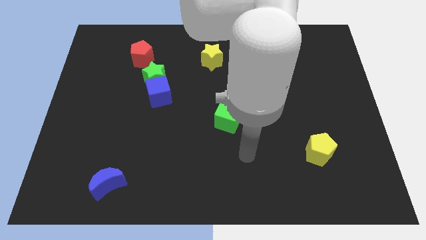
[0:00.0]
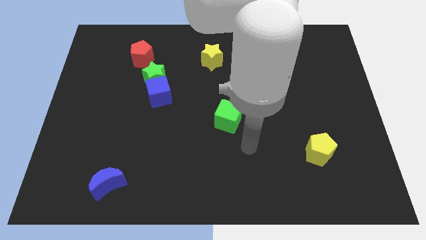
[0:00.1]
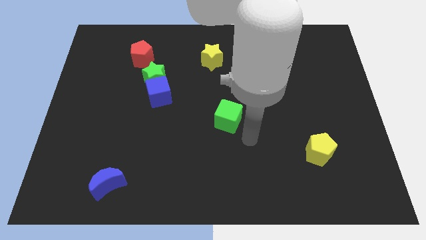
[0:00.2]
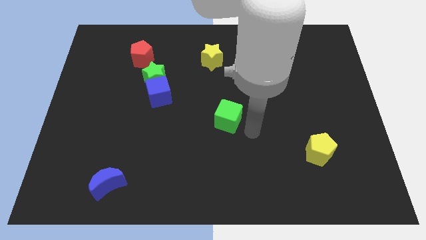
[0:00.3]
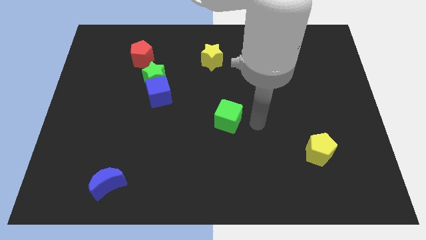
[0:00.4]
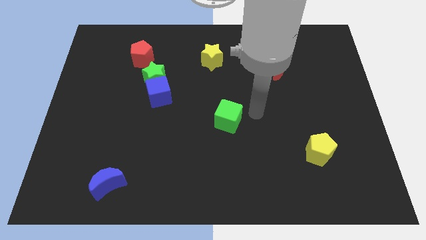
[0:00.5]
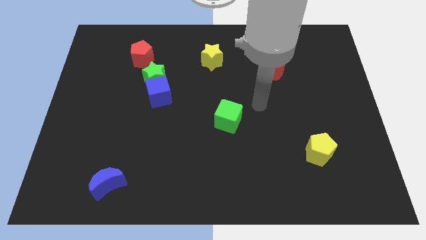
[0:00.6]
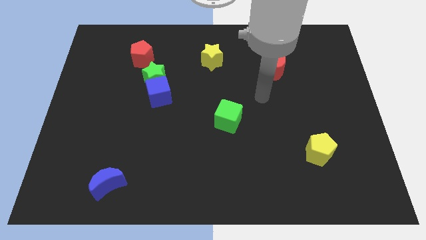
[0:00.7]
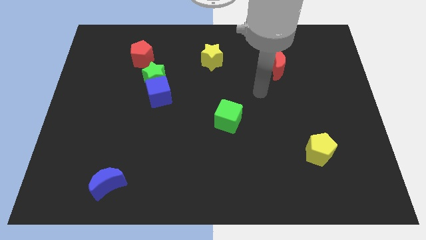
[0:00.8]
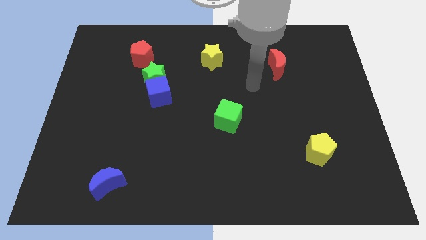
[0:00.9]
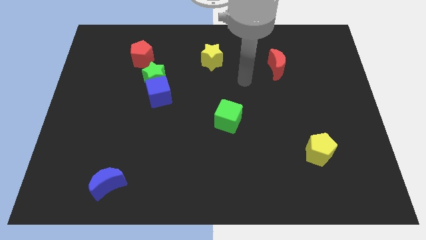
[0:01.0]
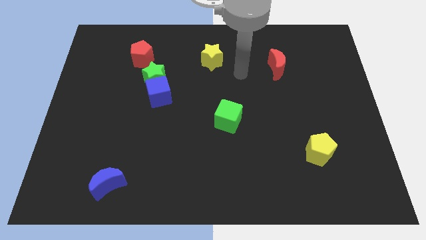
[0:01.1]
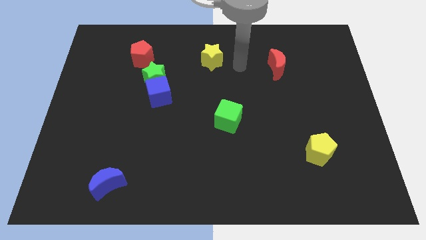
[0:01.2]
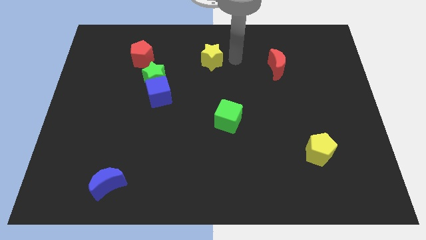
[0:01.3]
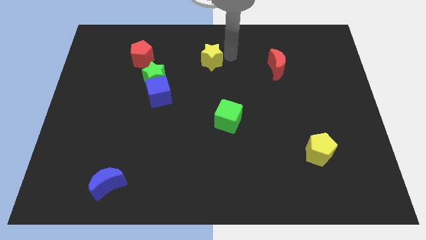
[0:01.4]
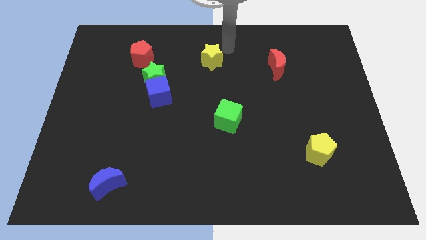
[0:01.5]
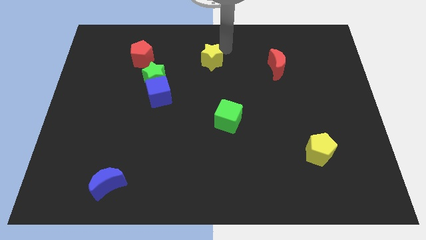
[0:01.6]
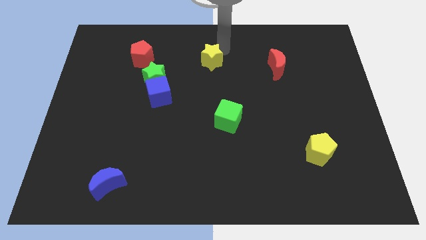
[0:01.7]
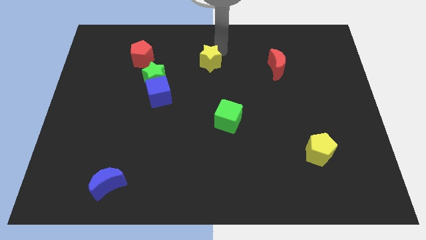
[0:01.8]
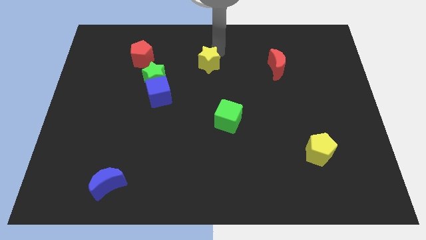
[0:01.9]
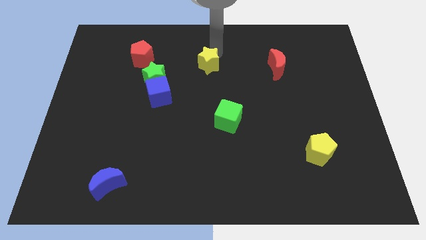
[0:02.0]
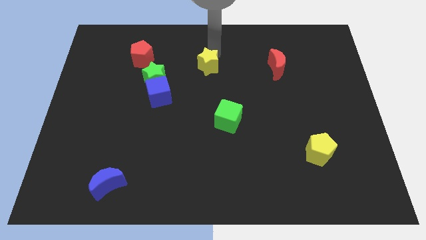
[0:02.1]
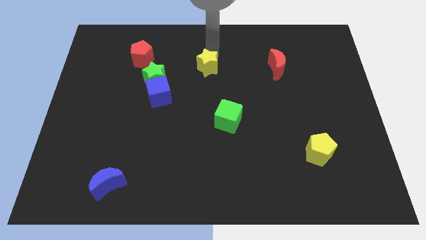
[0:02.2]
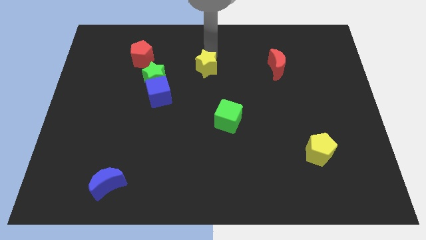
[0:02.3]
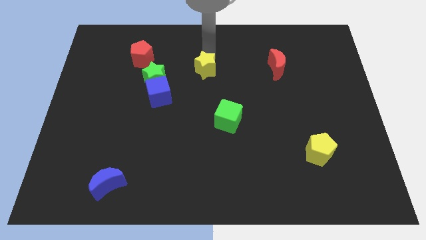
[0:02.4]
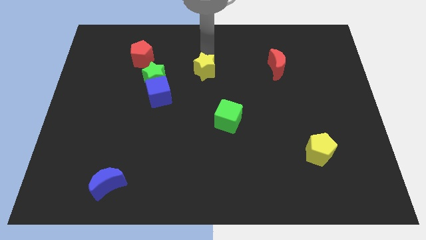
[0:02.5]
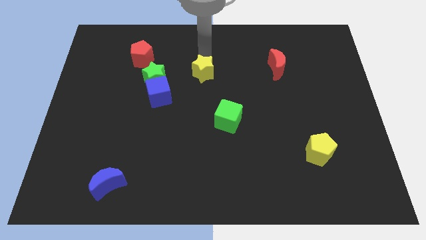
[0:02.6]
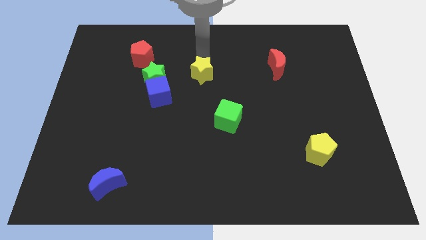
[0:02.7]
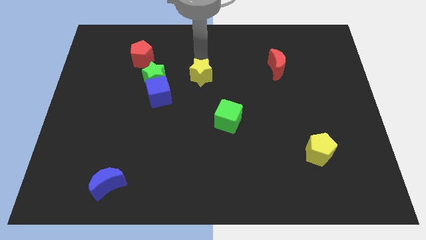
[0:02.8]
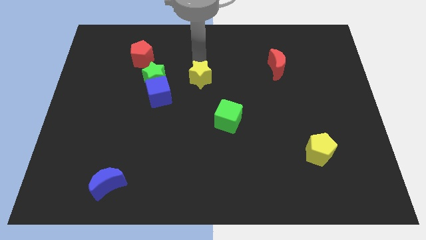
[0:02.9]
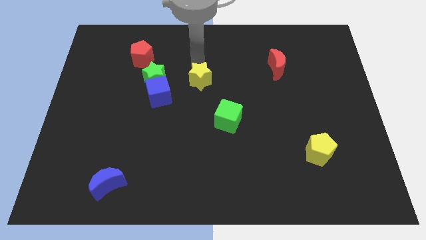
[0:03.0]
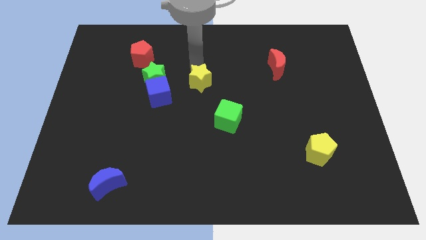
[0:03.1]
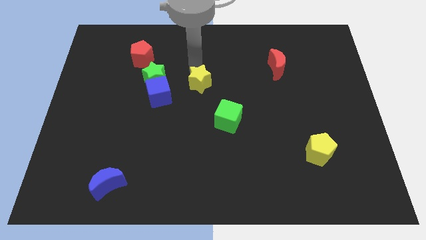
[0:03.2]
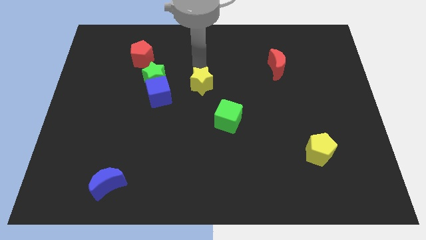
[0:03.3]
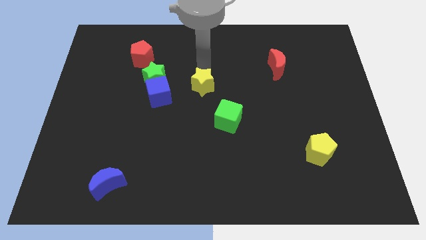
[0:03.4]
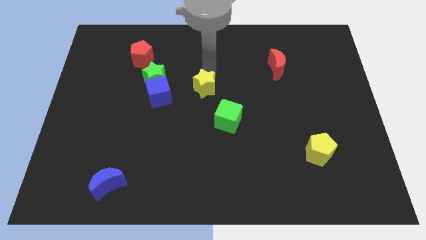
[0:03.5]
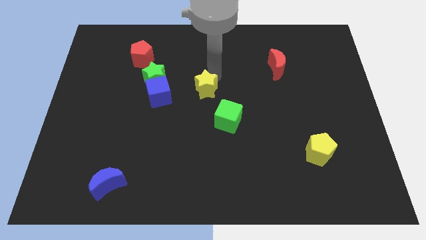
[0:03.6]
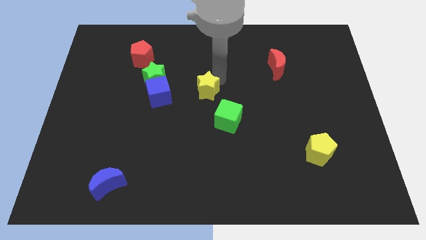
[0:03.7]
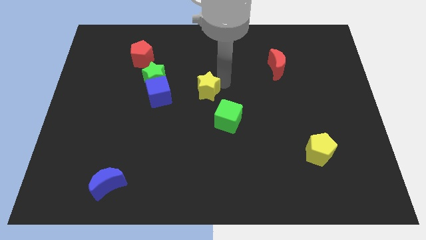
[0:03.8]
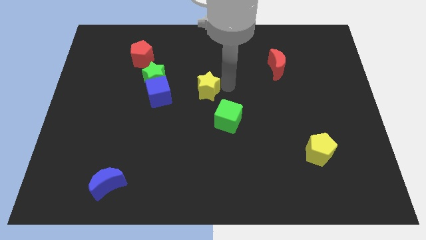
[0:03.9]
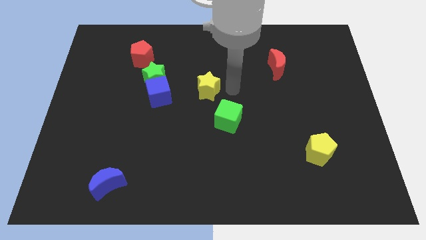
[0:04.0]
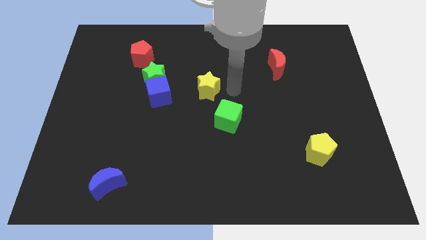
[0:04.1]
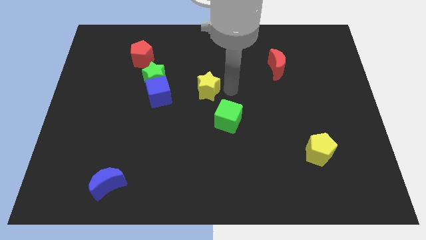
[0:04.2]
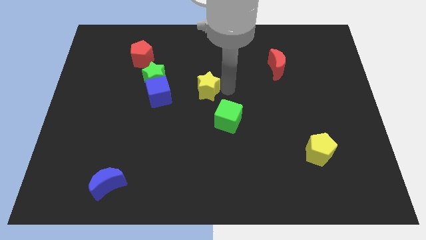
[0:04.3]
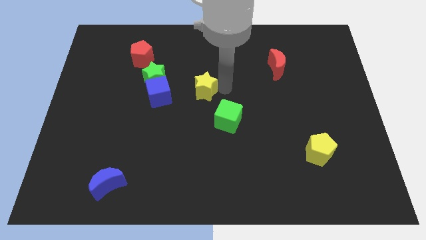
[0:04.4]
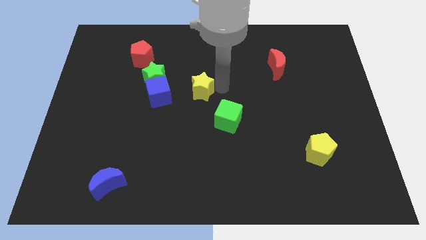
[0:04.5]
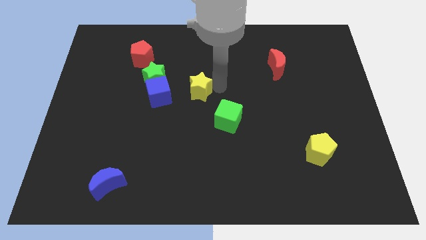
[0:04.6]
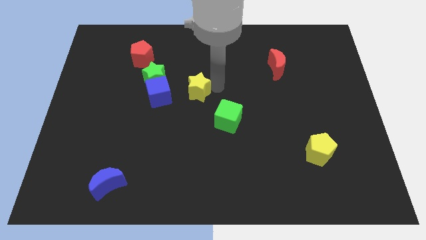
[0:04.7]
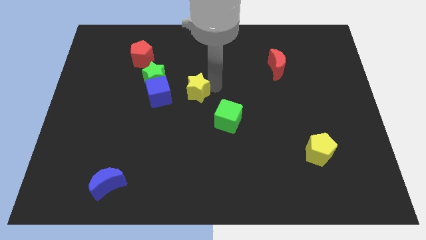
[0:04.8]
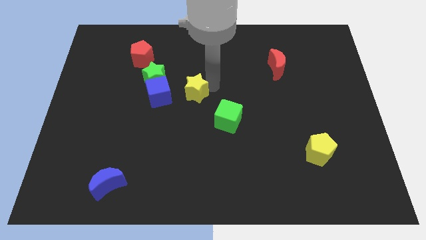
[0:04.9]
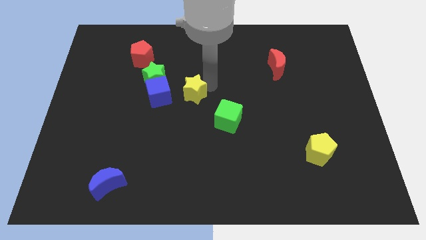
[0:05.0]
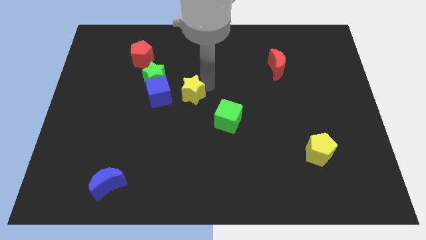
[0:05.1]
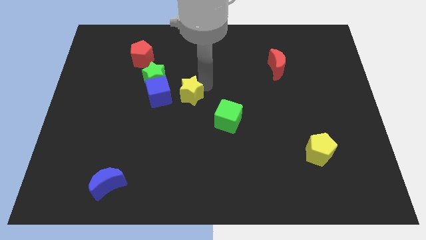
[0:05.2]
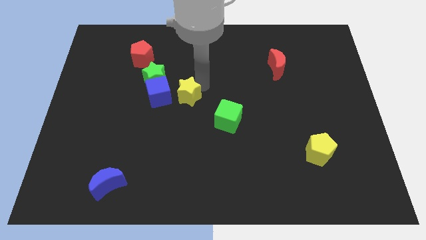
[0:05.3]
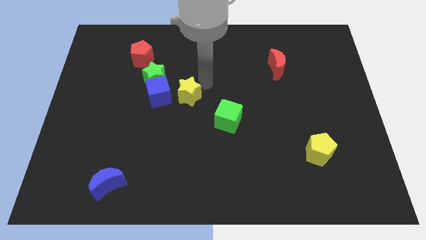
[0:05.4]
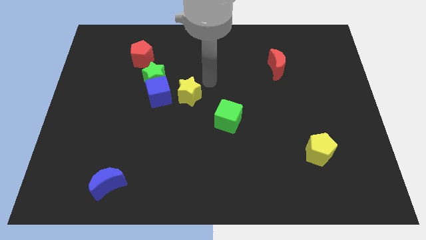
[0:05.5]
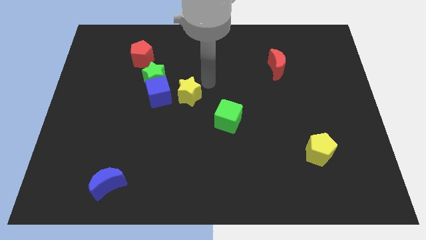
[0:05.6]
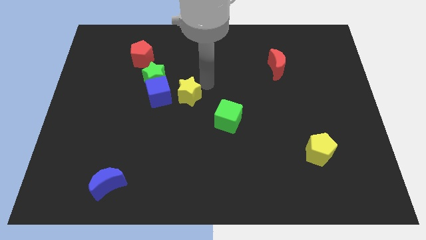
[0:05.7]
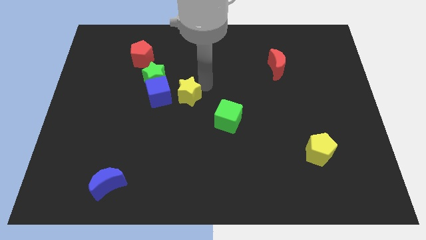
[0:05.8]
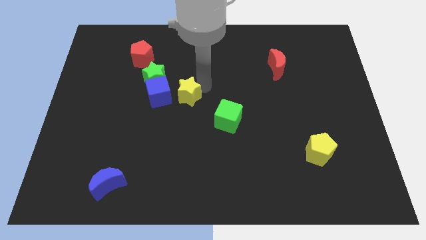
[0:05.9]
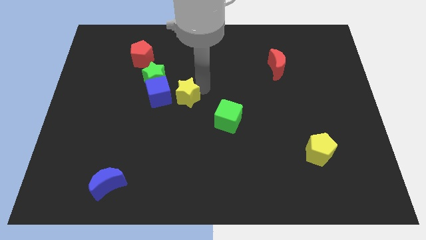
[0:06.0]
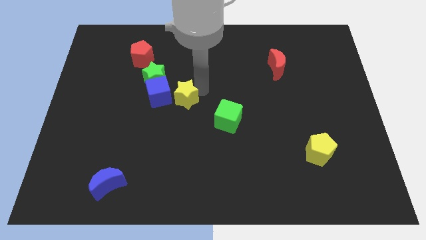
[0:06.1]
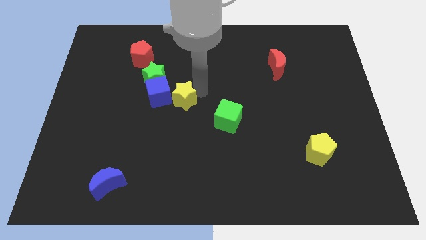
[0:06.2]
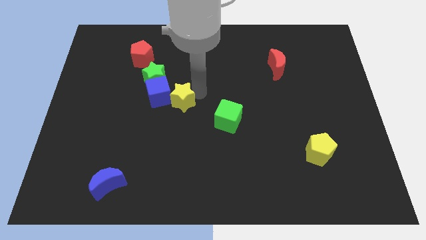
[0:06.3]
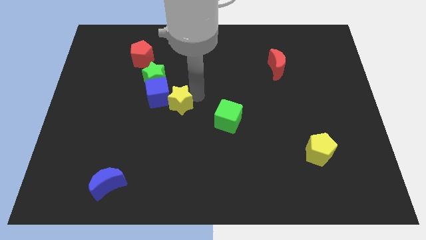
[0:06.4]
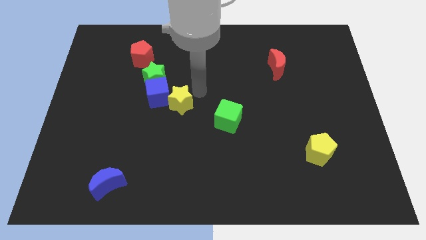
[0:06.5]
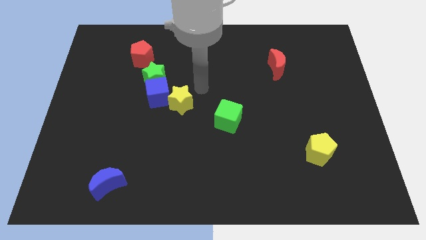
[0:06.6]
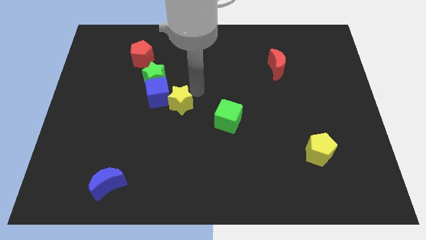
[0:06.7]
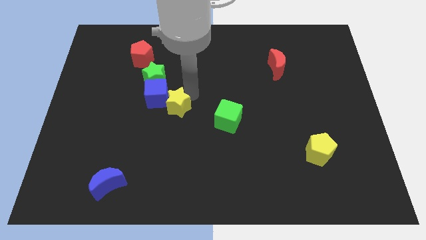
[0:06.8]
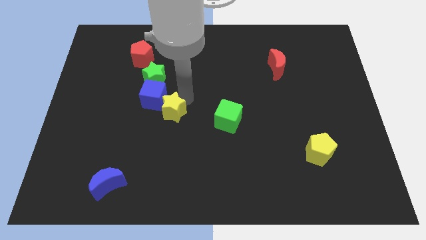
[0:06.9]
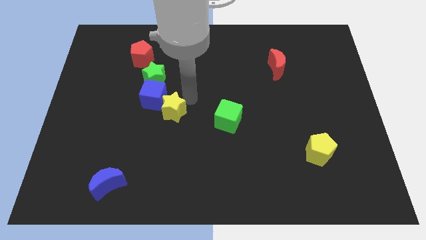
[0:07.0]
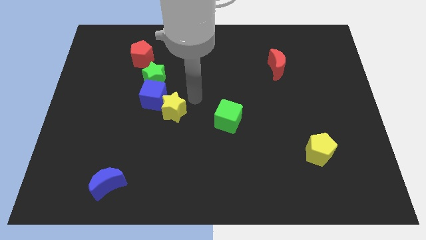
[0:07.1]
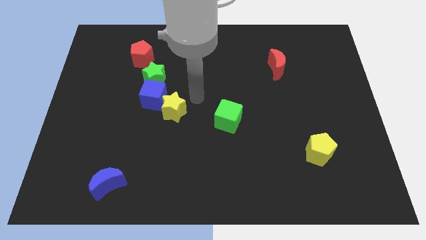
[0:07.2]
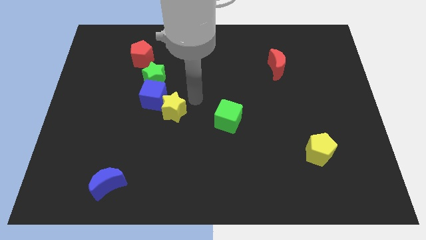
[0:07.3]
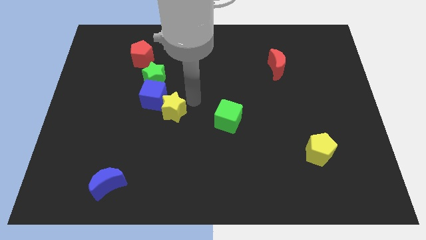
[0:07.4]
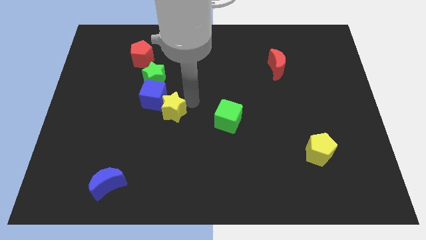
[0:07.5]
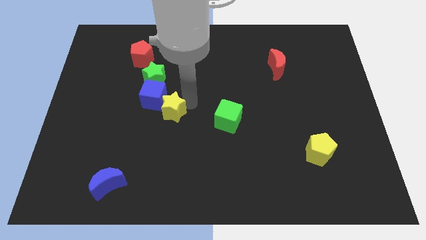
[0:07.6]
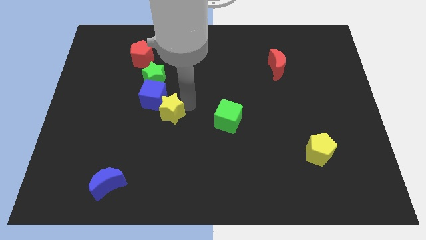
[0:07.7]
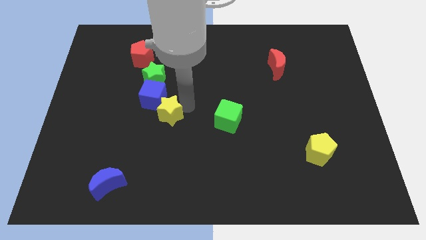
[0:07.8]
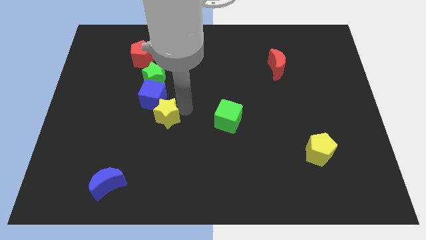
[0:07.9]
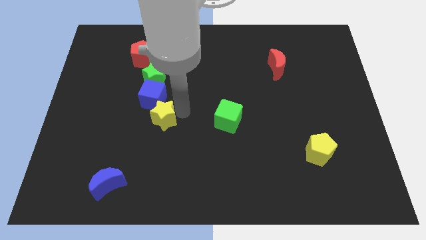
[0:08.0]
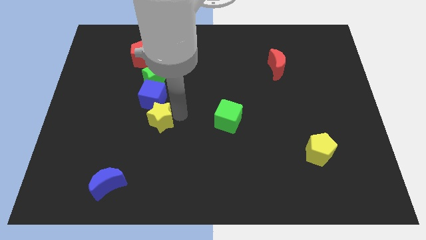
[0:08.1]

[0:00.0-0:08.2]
slide the yellow star down and then left
